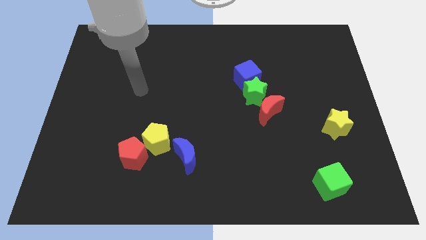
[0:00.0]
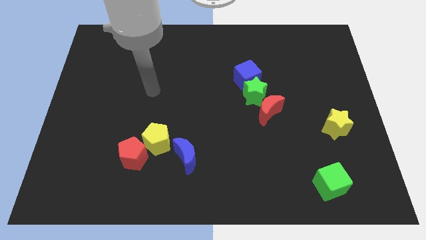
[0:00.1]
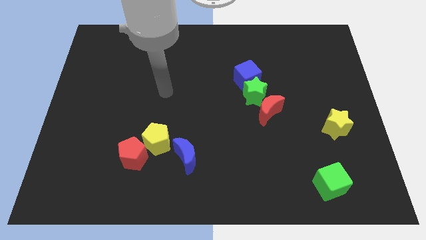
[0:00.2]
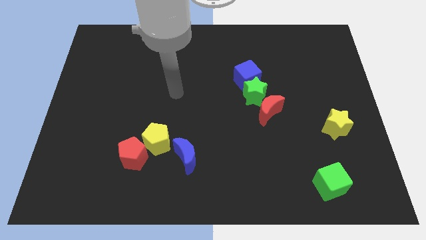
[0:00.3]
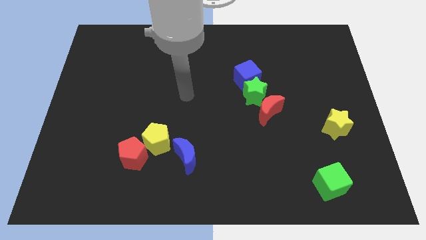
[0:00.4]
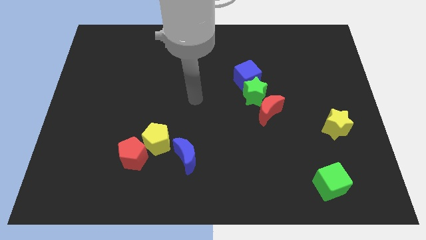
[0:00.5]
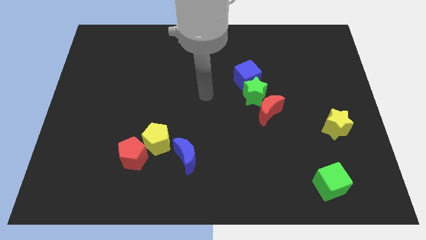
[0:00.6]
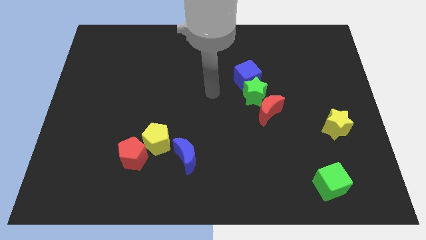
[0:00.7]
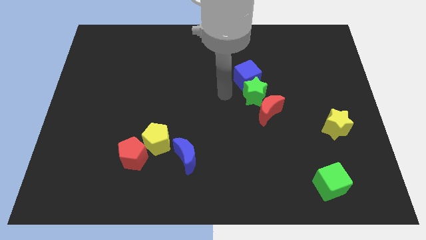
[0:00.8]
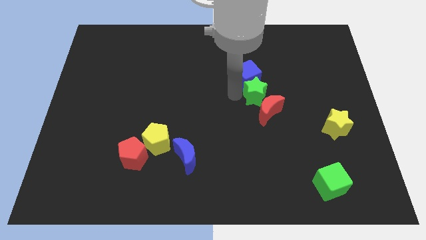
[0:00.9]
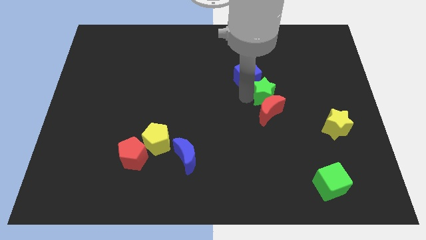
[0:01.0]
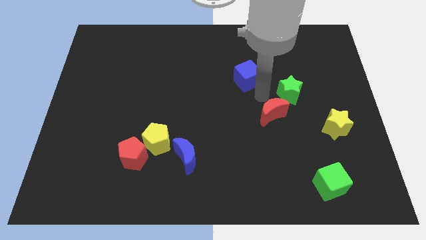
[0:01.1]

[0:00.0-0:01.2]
move the blue cube away from the green star

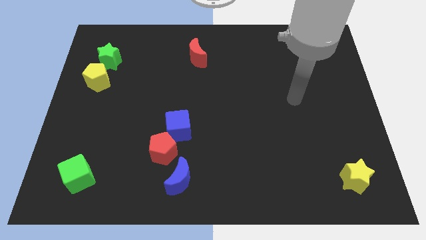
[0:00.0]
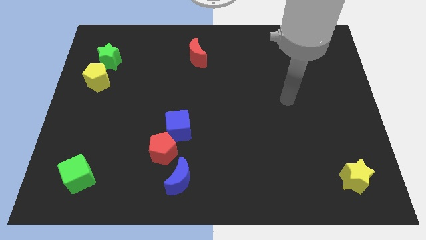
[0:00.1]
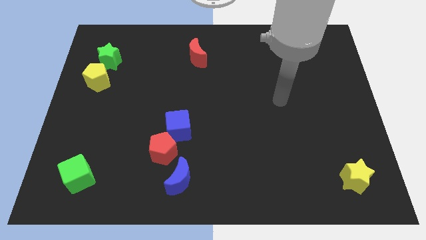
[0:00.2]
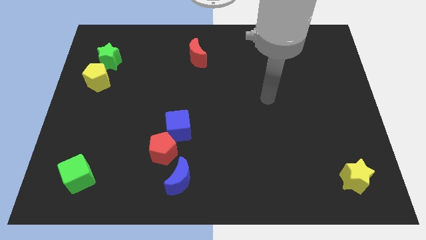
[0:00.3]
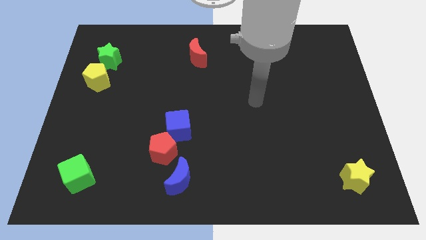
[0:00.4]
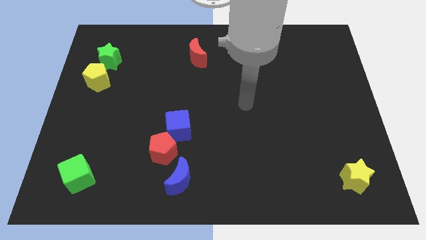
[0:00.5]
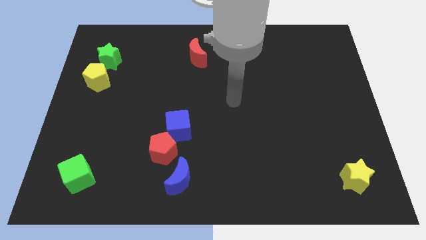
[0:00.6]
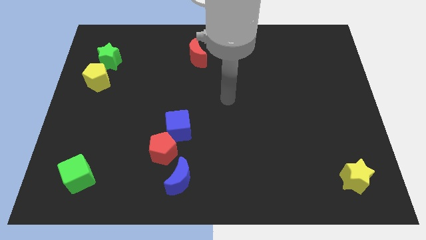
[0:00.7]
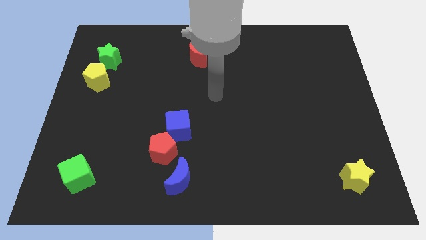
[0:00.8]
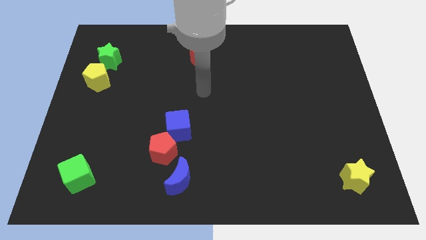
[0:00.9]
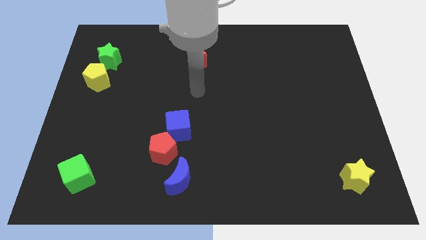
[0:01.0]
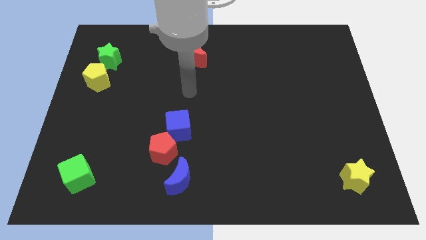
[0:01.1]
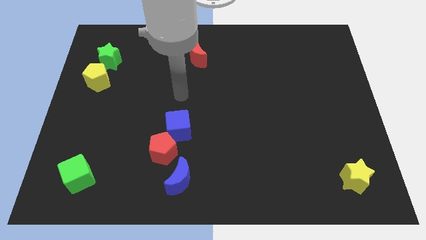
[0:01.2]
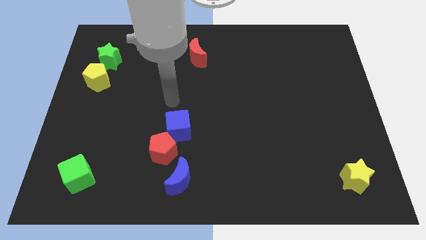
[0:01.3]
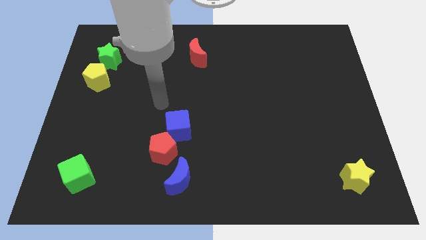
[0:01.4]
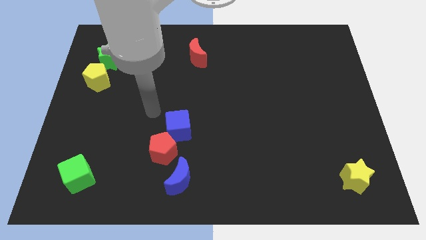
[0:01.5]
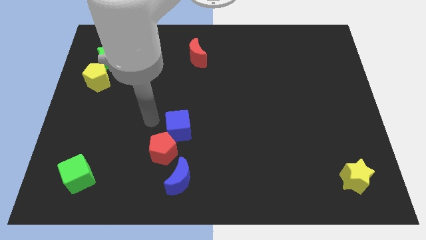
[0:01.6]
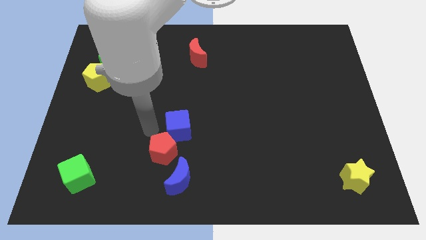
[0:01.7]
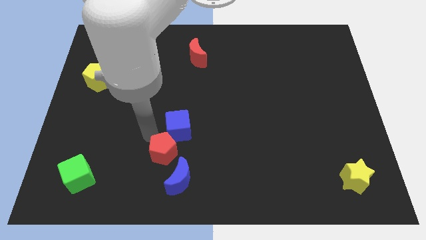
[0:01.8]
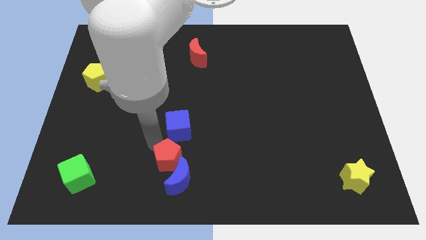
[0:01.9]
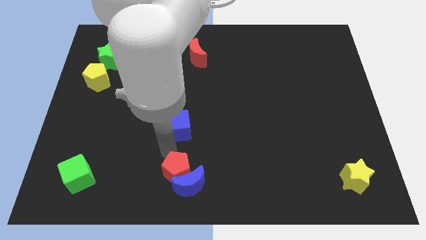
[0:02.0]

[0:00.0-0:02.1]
pull the blue cube apart from the red pentagon

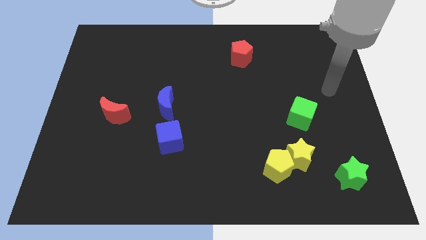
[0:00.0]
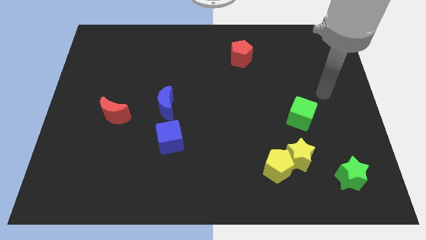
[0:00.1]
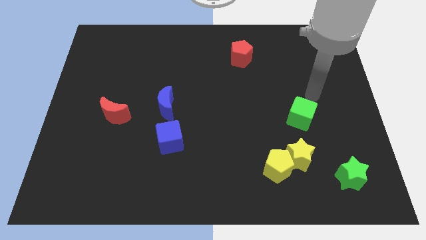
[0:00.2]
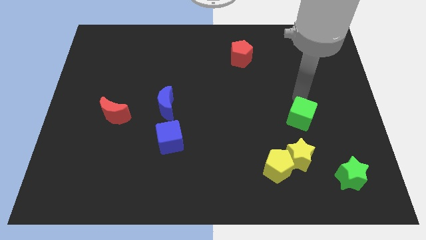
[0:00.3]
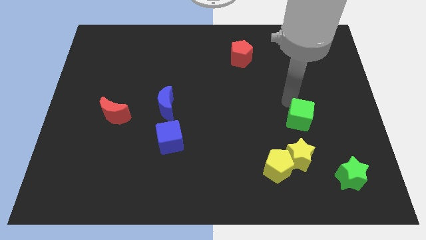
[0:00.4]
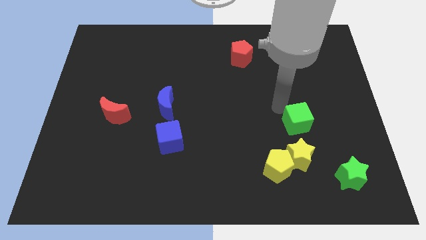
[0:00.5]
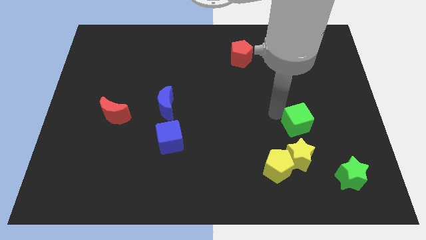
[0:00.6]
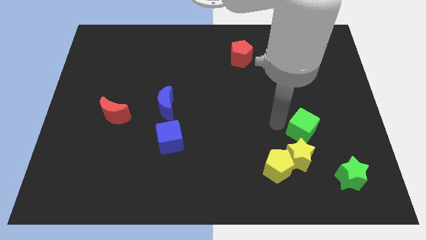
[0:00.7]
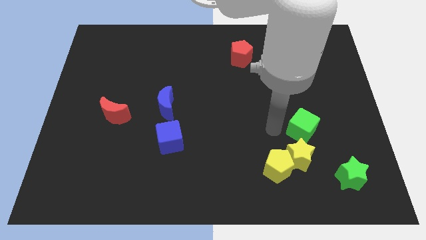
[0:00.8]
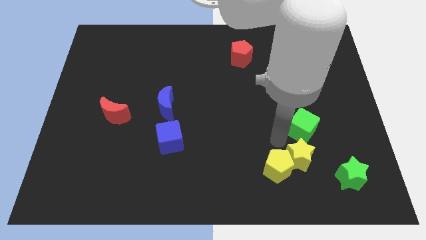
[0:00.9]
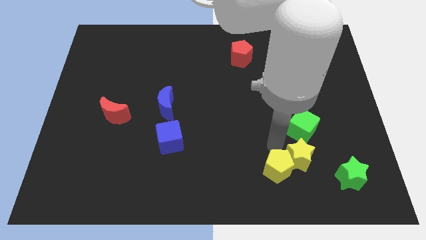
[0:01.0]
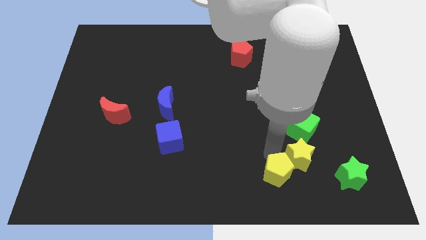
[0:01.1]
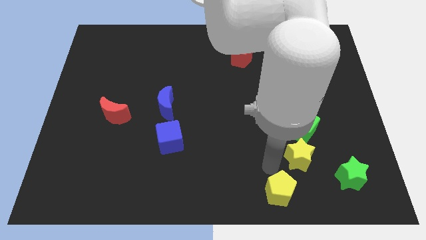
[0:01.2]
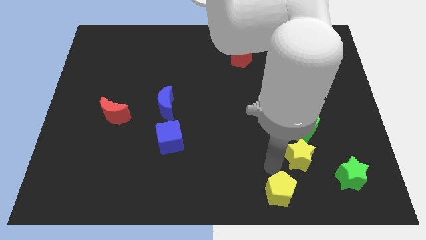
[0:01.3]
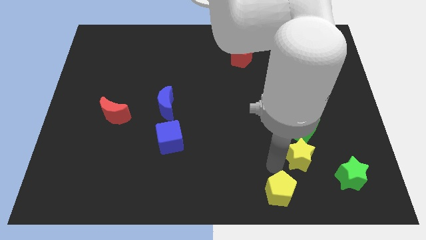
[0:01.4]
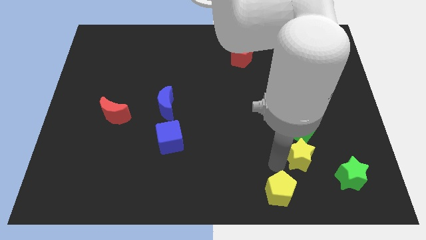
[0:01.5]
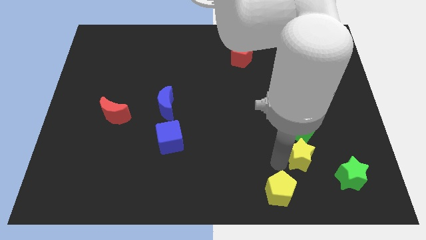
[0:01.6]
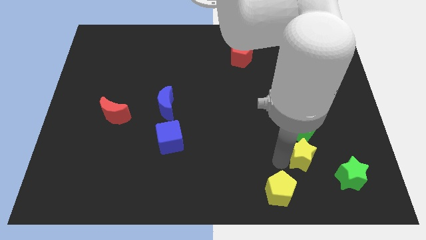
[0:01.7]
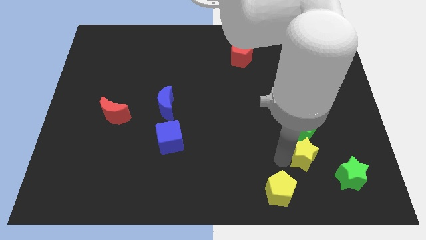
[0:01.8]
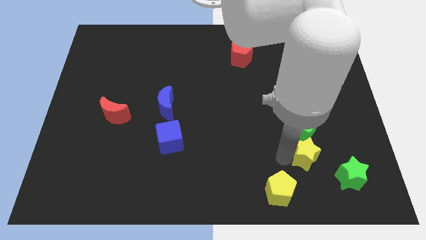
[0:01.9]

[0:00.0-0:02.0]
pull the yellow star apart from the yellow pentagon

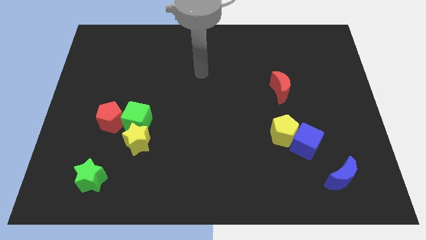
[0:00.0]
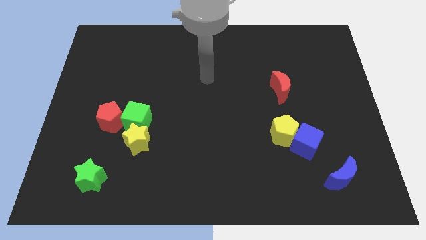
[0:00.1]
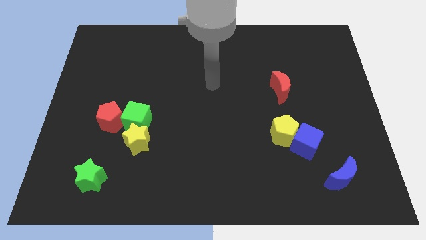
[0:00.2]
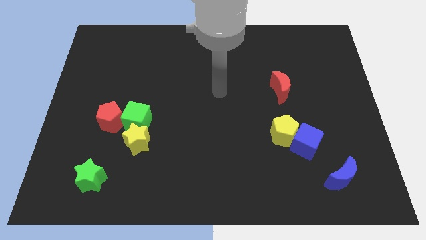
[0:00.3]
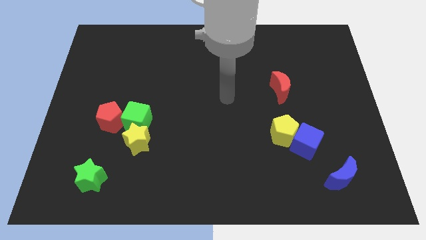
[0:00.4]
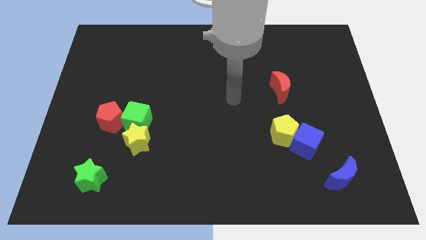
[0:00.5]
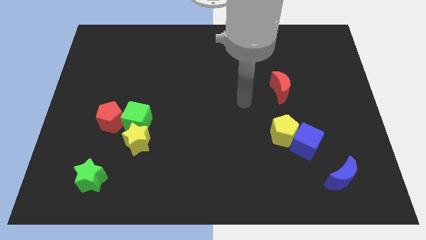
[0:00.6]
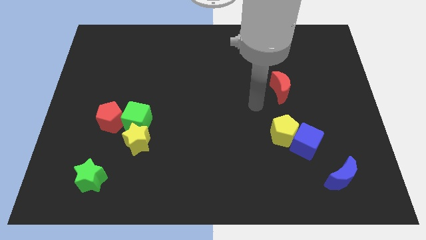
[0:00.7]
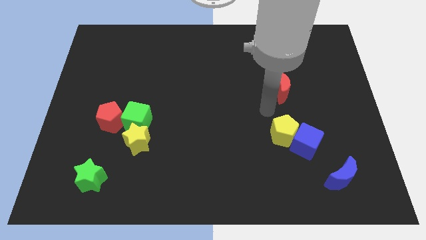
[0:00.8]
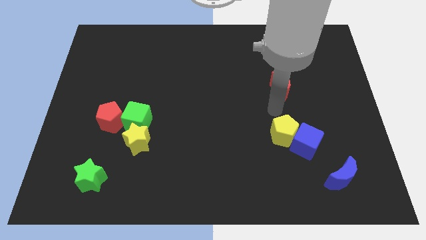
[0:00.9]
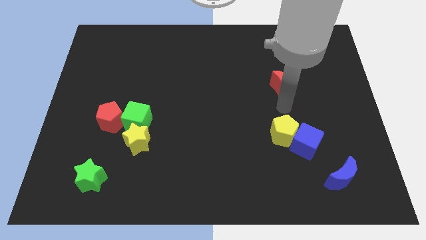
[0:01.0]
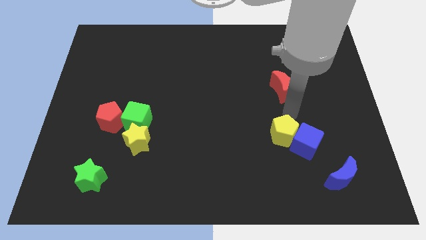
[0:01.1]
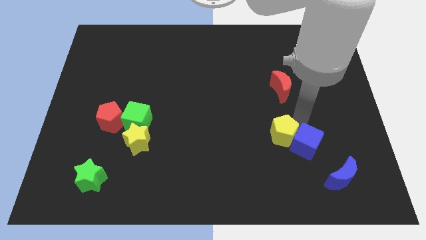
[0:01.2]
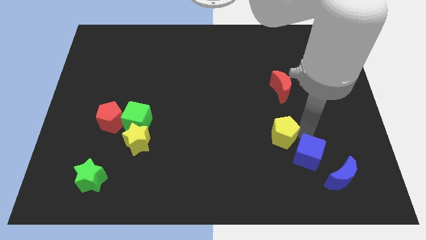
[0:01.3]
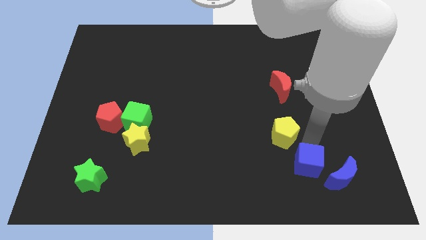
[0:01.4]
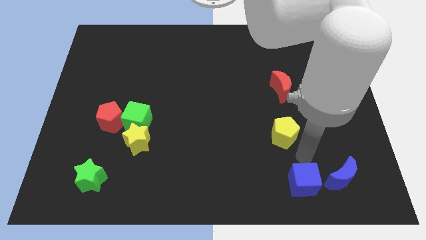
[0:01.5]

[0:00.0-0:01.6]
separate the yellow pentagon from the blue cube

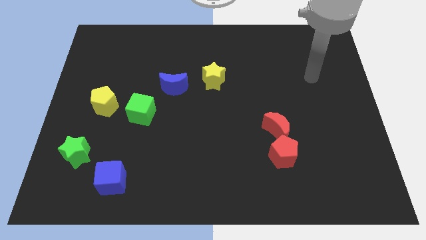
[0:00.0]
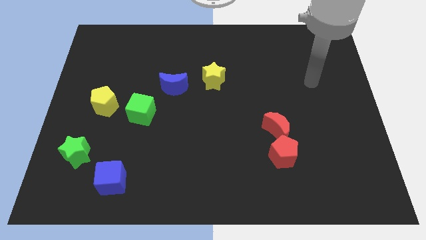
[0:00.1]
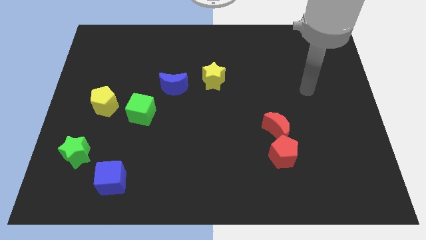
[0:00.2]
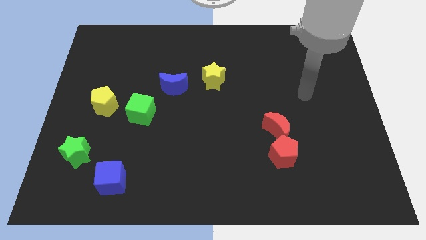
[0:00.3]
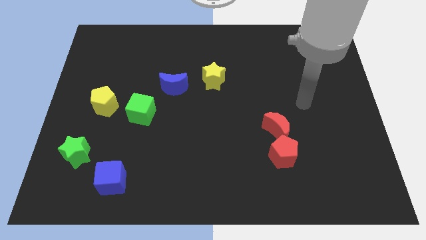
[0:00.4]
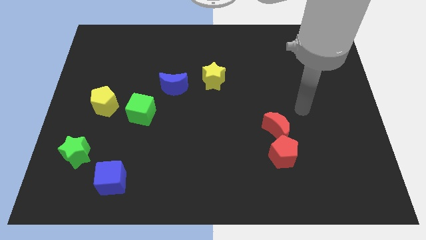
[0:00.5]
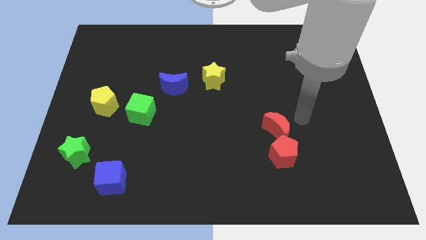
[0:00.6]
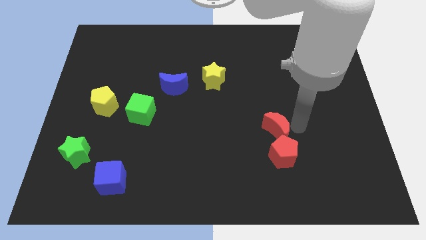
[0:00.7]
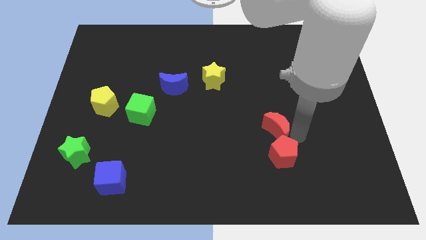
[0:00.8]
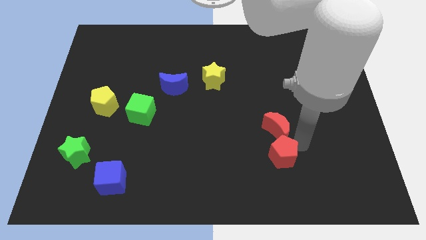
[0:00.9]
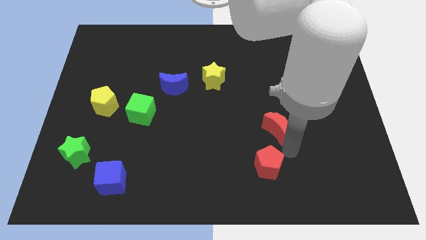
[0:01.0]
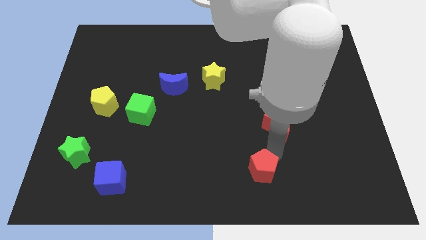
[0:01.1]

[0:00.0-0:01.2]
separate the red moon from the red pentagon

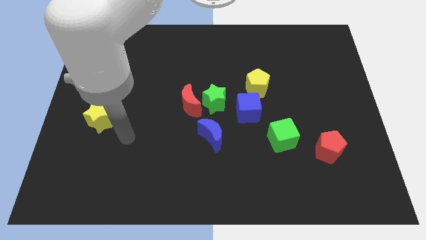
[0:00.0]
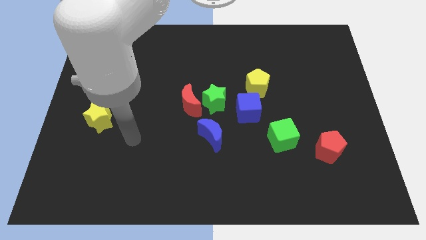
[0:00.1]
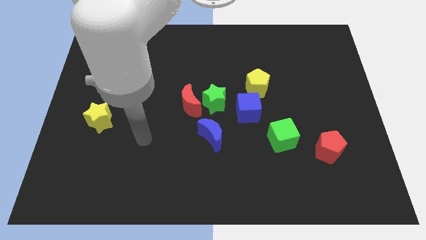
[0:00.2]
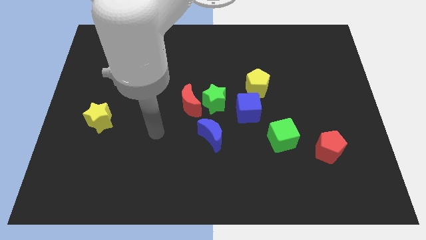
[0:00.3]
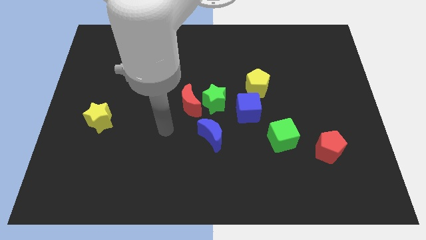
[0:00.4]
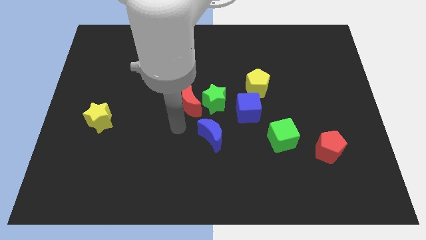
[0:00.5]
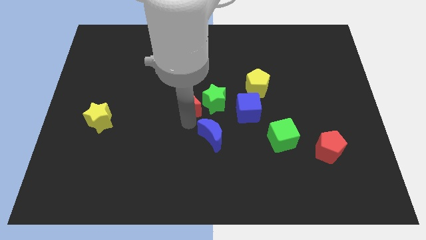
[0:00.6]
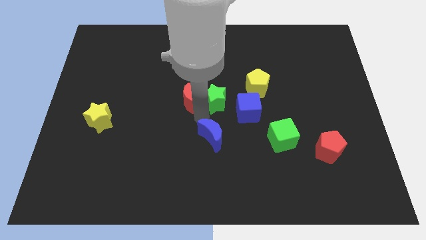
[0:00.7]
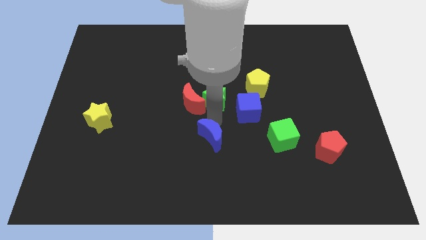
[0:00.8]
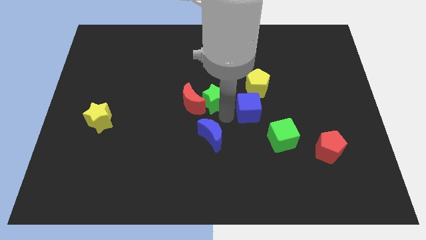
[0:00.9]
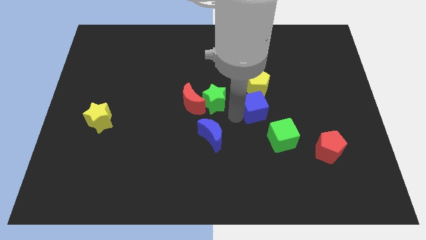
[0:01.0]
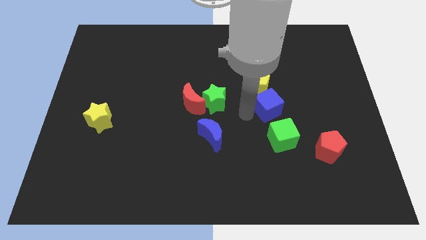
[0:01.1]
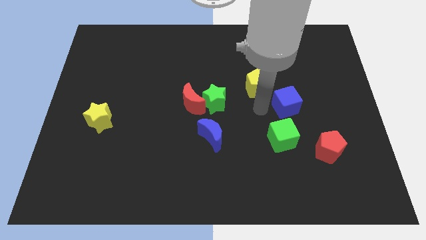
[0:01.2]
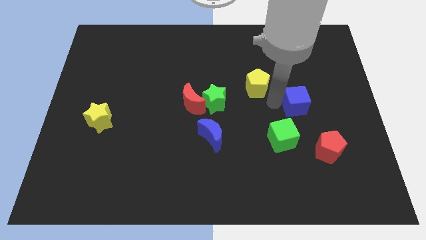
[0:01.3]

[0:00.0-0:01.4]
move the yellow pentagon away from the blue cube
